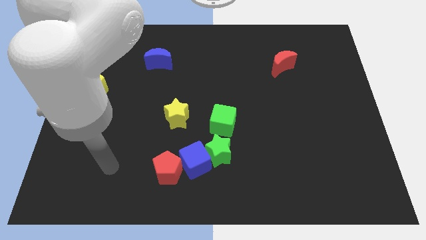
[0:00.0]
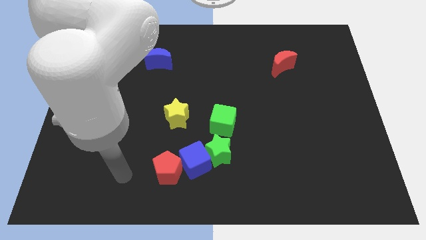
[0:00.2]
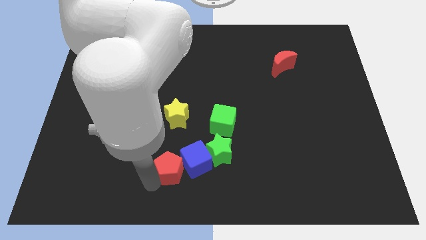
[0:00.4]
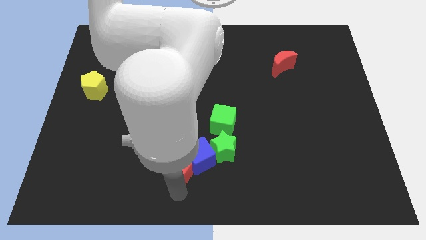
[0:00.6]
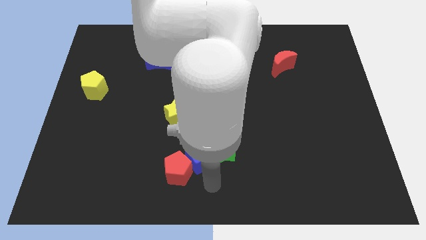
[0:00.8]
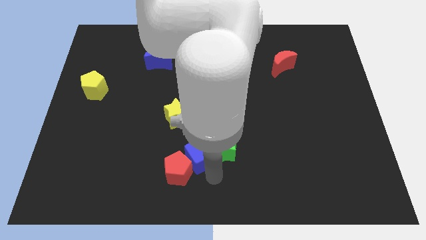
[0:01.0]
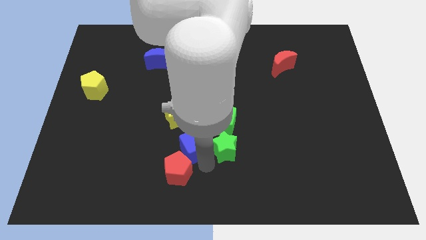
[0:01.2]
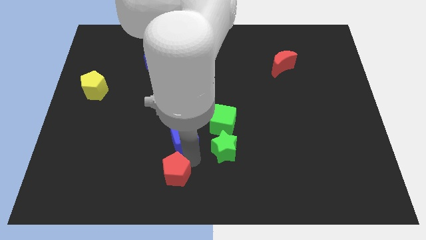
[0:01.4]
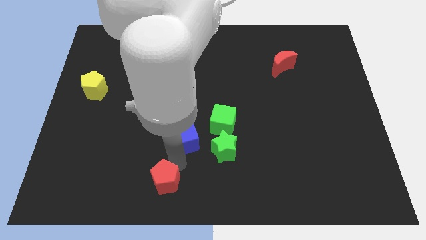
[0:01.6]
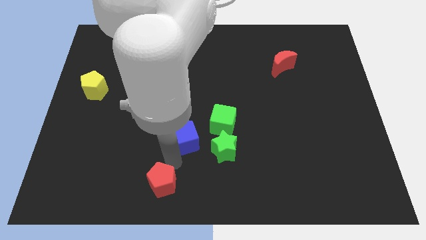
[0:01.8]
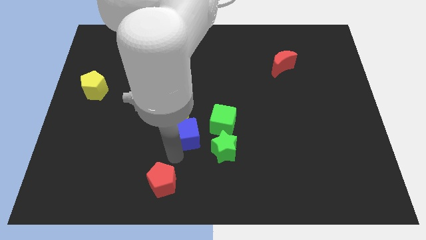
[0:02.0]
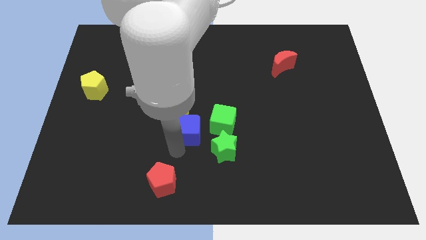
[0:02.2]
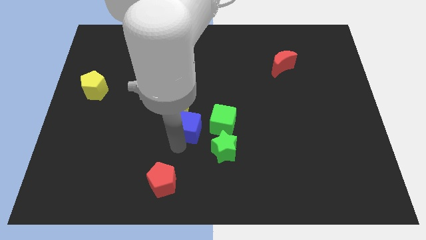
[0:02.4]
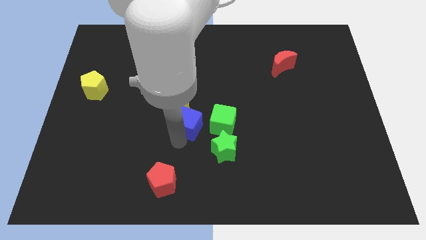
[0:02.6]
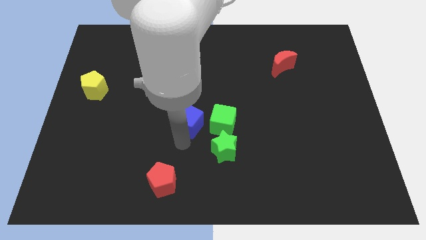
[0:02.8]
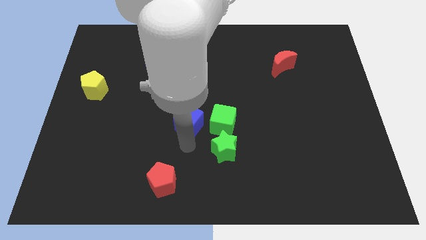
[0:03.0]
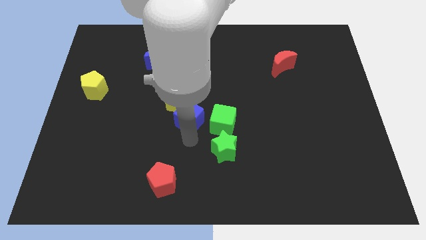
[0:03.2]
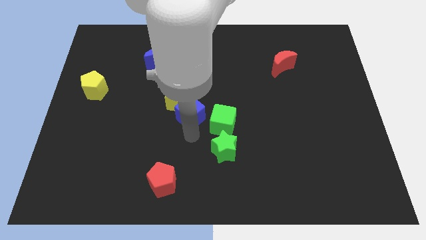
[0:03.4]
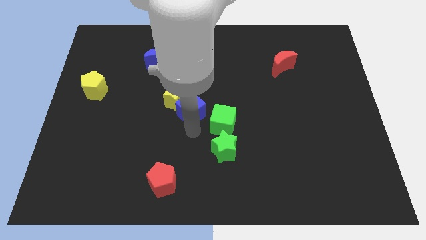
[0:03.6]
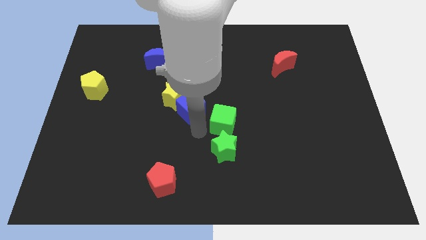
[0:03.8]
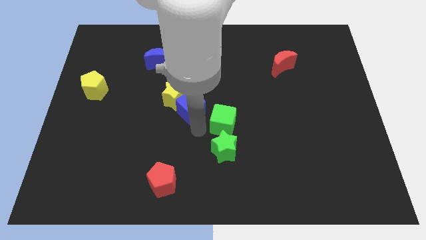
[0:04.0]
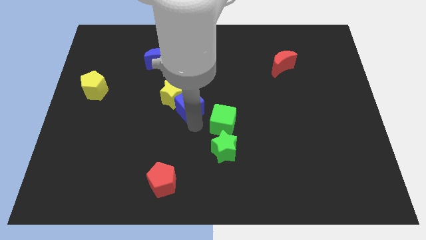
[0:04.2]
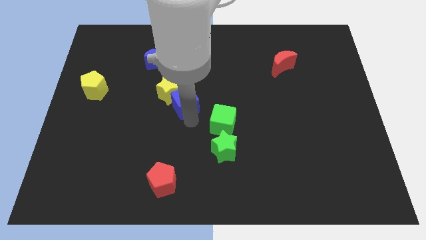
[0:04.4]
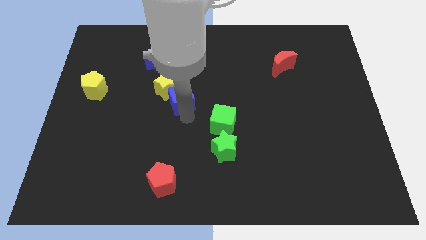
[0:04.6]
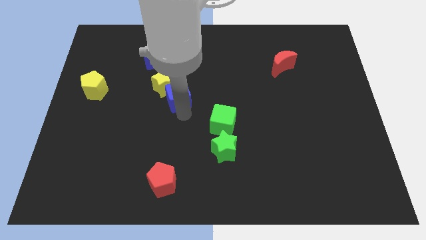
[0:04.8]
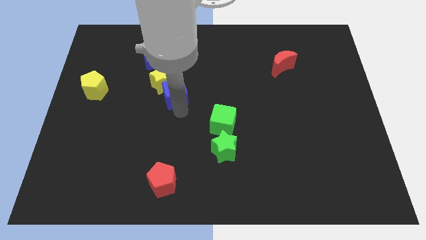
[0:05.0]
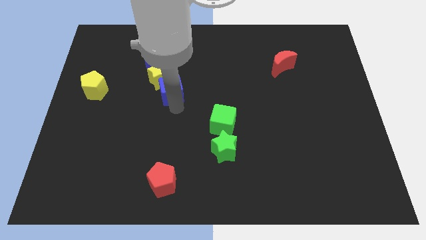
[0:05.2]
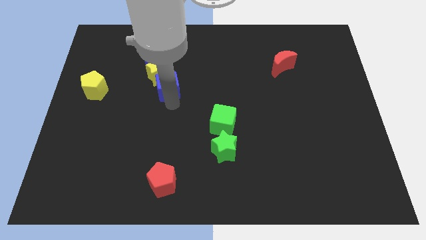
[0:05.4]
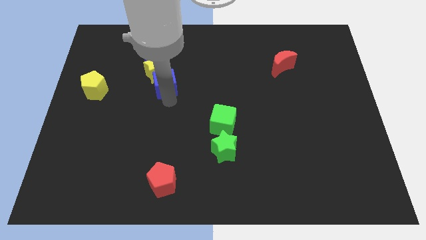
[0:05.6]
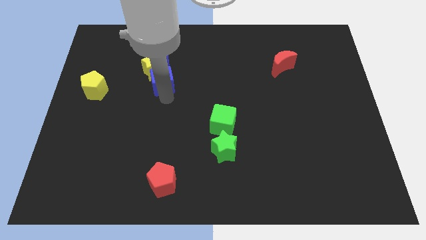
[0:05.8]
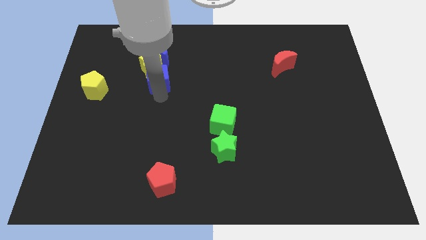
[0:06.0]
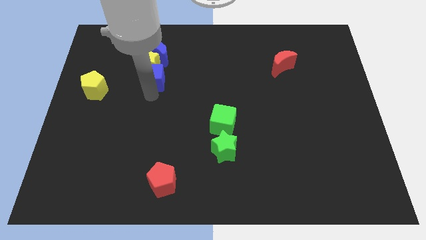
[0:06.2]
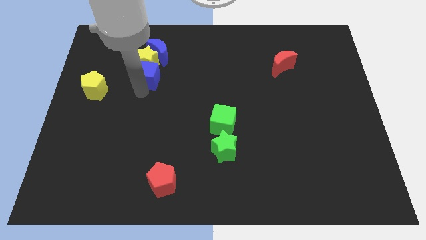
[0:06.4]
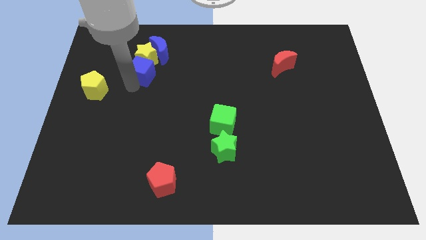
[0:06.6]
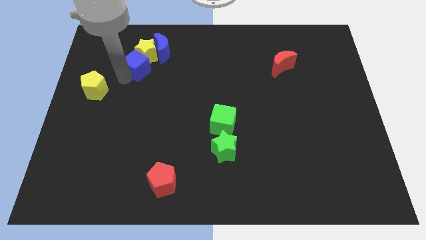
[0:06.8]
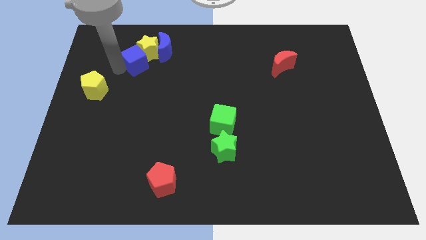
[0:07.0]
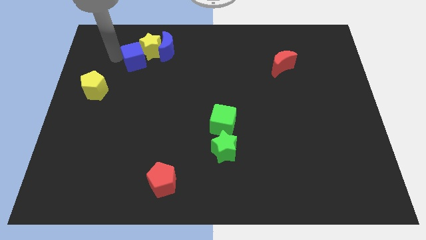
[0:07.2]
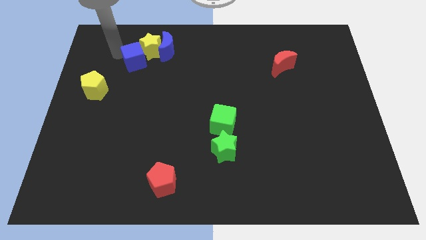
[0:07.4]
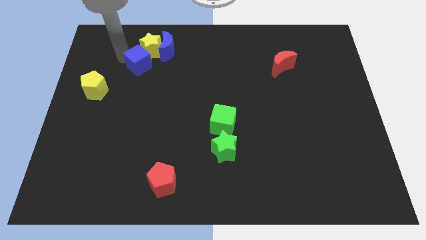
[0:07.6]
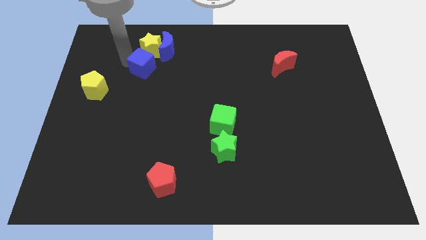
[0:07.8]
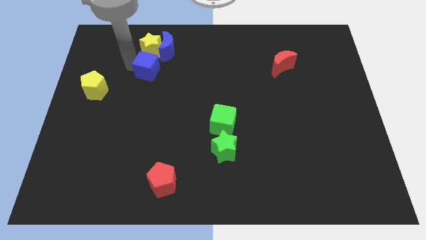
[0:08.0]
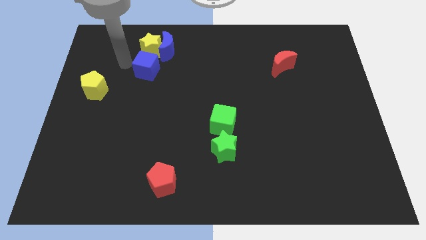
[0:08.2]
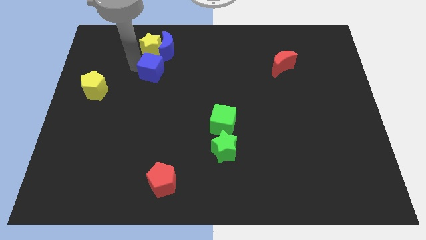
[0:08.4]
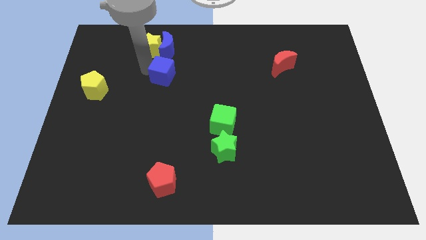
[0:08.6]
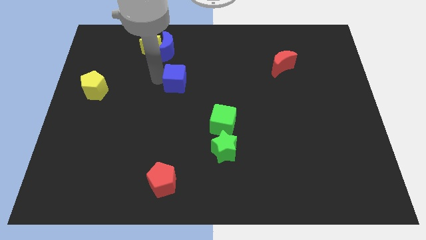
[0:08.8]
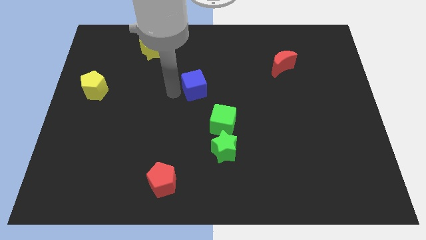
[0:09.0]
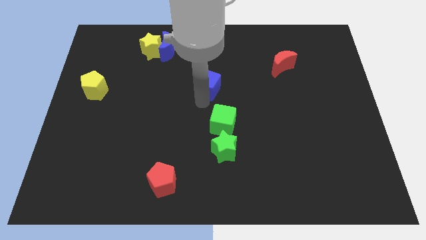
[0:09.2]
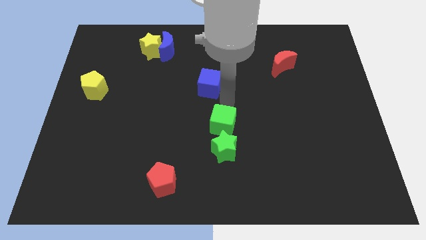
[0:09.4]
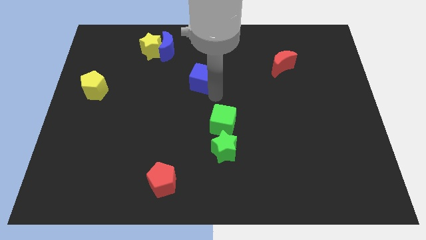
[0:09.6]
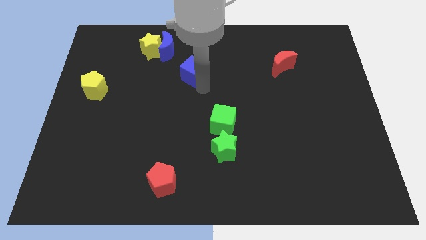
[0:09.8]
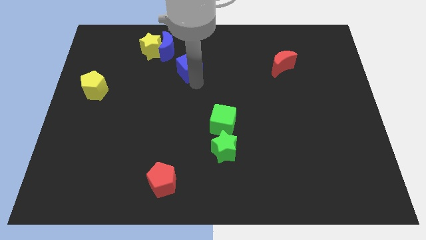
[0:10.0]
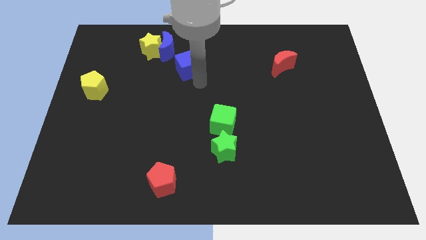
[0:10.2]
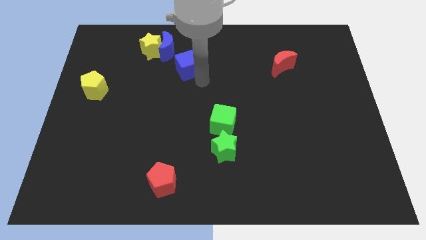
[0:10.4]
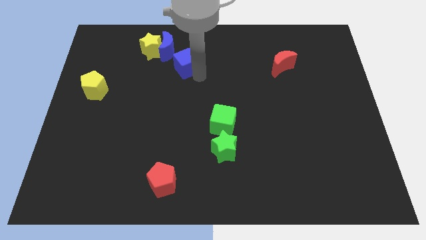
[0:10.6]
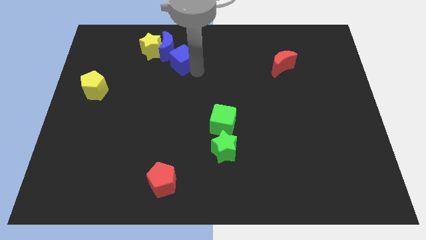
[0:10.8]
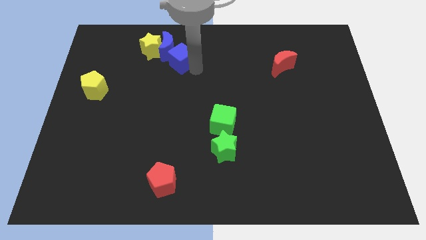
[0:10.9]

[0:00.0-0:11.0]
move the blue cube towards the blue moon

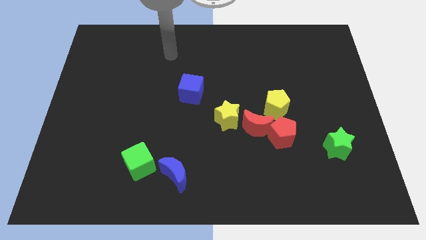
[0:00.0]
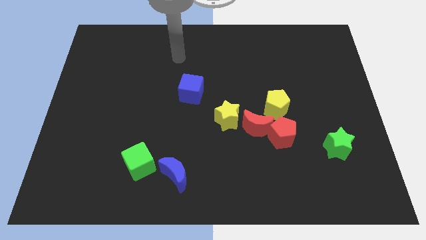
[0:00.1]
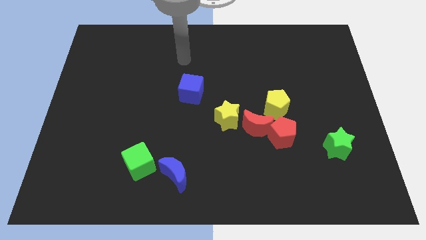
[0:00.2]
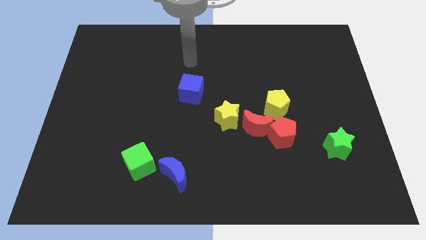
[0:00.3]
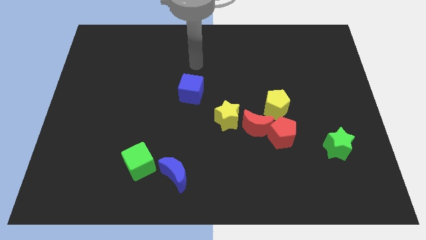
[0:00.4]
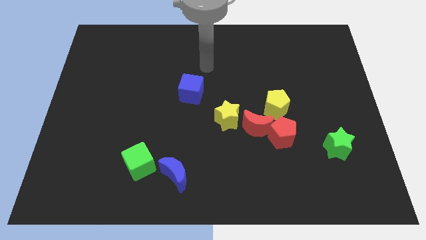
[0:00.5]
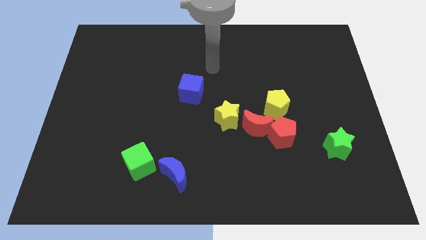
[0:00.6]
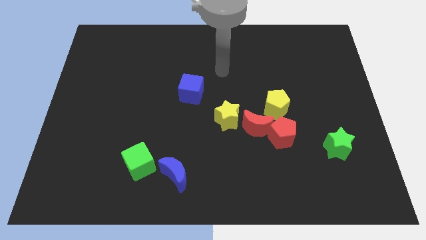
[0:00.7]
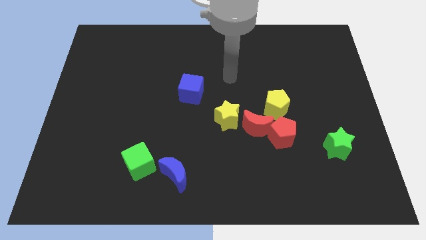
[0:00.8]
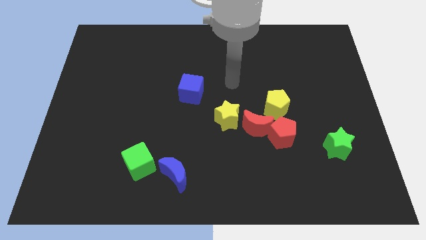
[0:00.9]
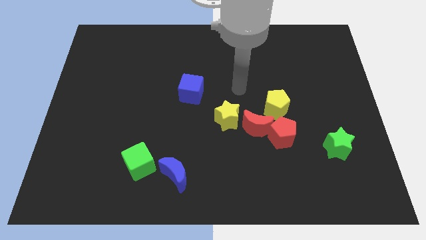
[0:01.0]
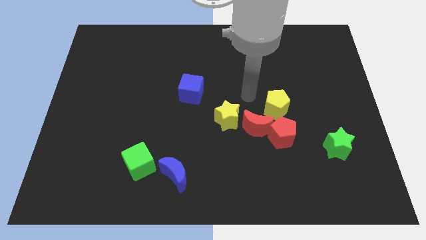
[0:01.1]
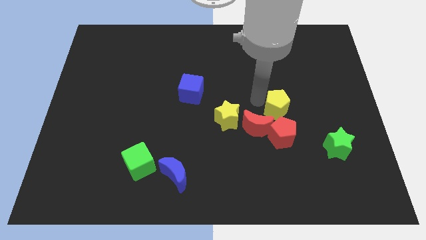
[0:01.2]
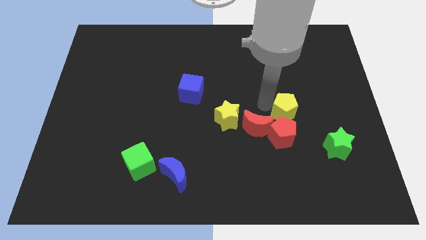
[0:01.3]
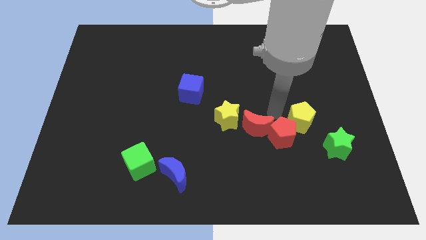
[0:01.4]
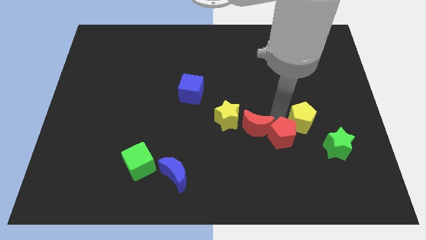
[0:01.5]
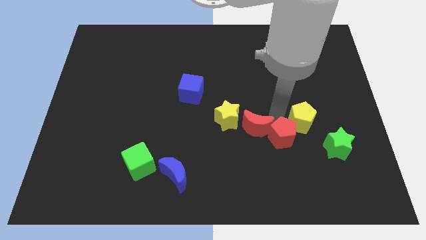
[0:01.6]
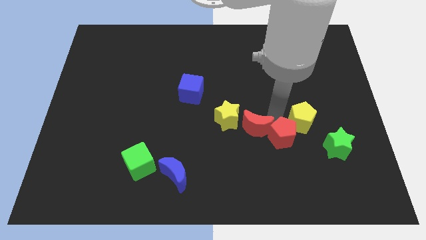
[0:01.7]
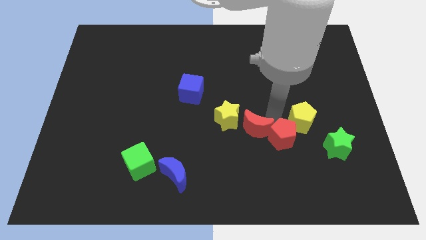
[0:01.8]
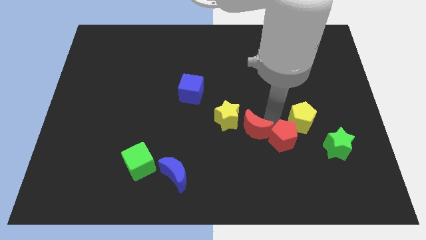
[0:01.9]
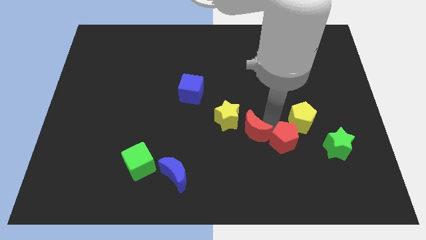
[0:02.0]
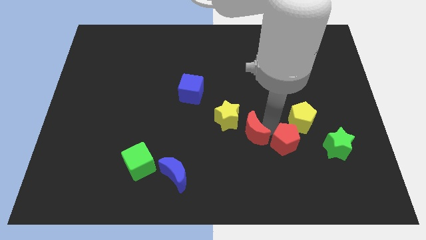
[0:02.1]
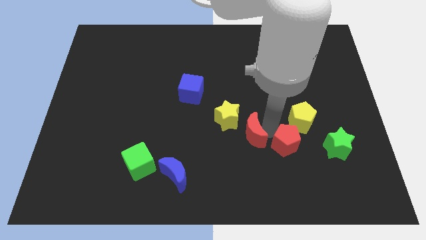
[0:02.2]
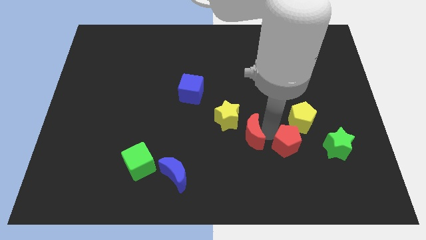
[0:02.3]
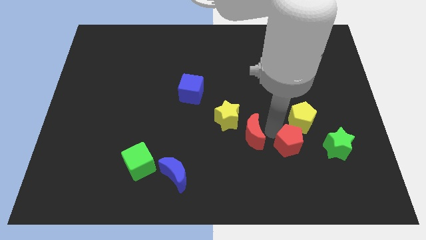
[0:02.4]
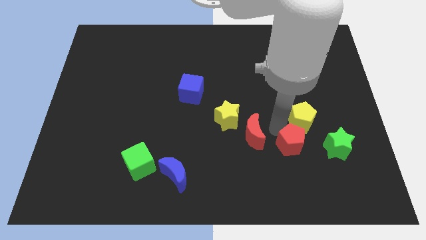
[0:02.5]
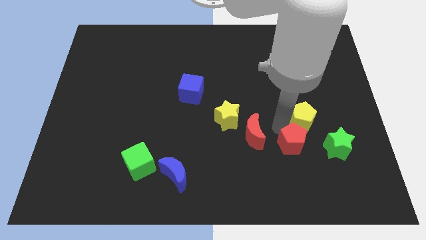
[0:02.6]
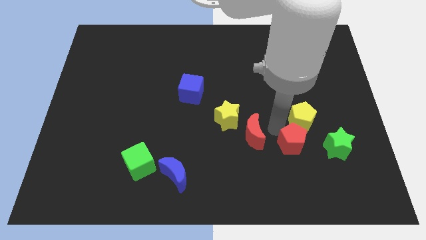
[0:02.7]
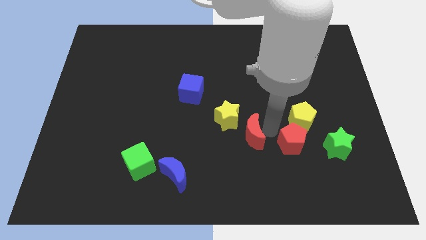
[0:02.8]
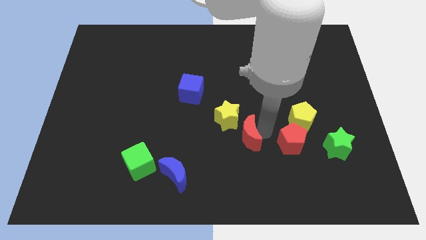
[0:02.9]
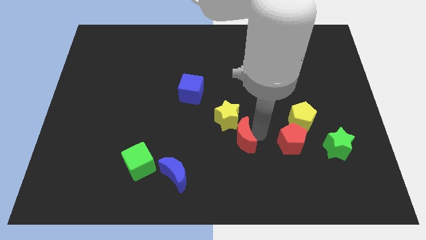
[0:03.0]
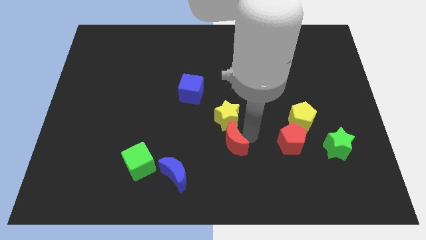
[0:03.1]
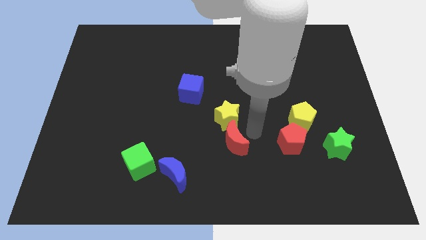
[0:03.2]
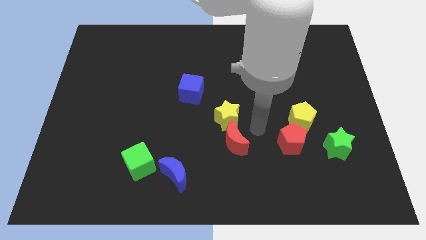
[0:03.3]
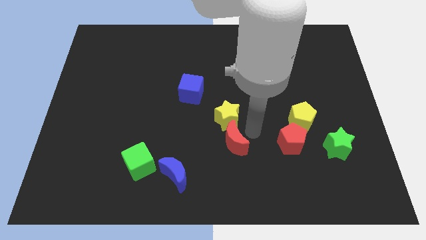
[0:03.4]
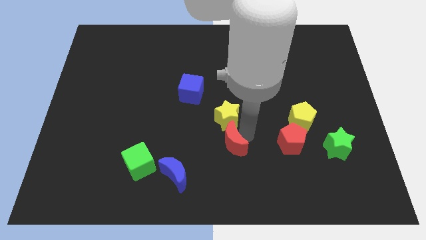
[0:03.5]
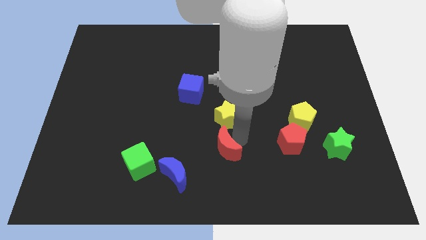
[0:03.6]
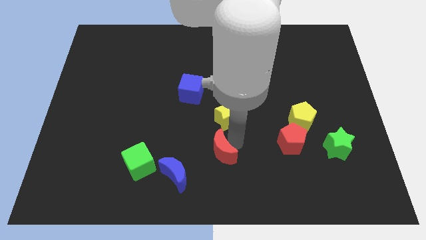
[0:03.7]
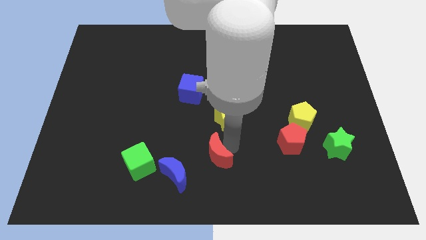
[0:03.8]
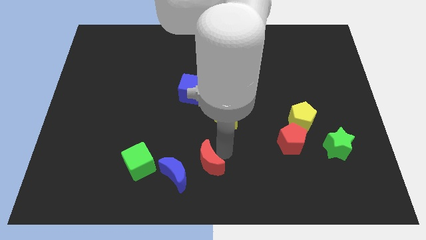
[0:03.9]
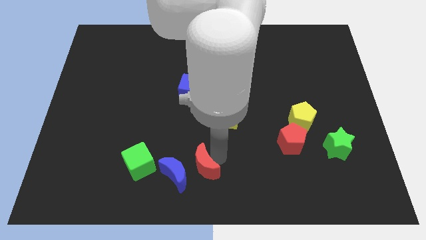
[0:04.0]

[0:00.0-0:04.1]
slide the red moon towards the blue moon
